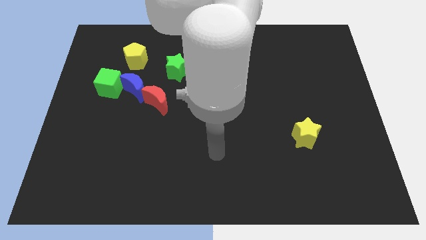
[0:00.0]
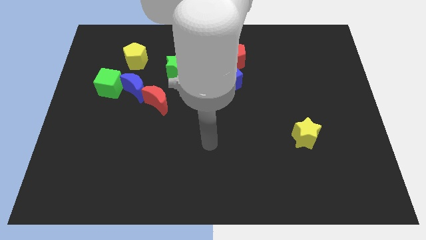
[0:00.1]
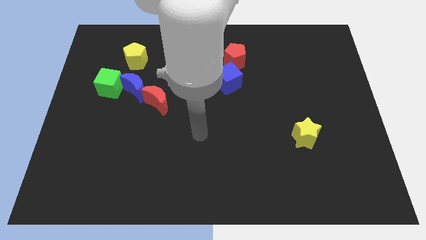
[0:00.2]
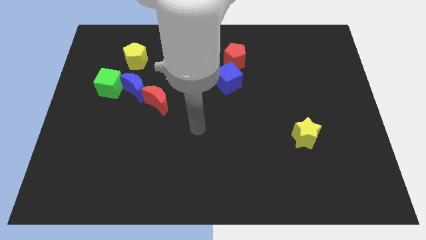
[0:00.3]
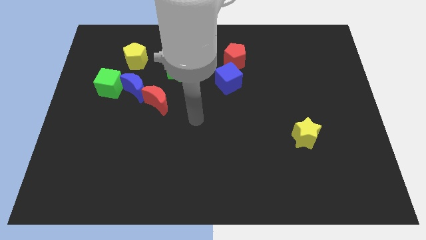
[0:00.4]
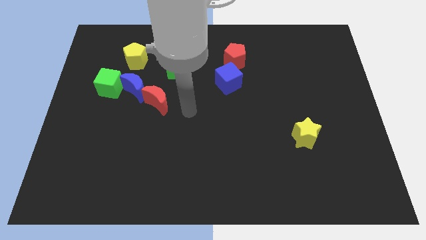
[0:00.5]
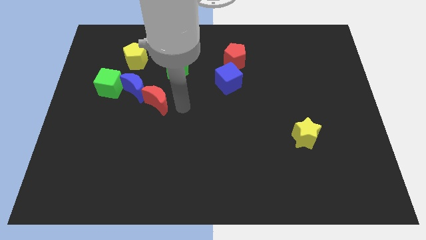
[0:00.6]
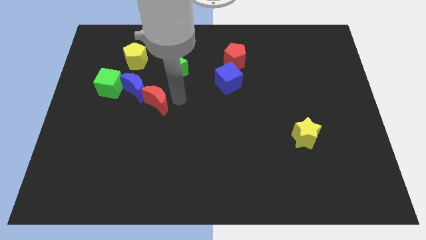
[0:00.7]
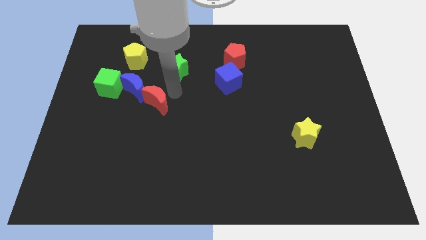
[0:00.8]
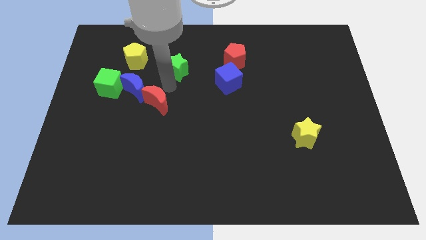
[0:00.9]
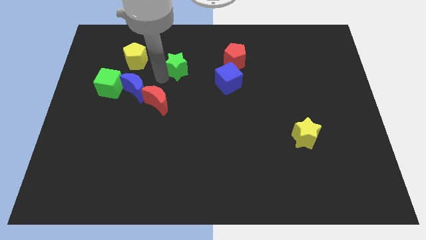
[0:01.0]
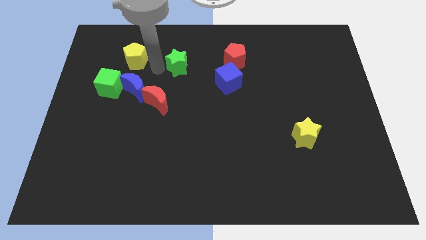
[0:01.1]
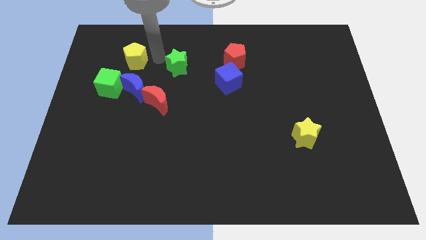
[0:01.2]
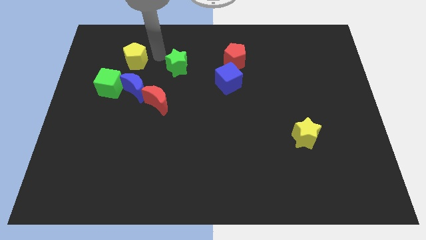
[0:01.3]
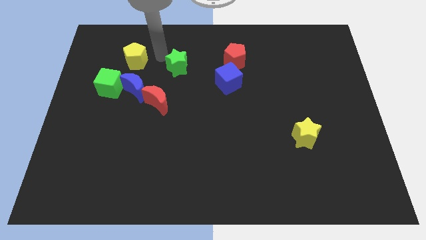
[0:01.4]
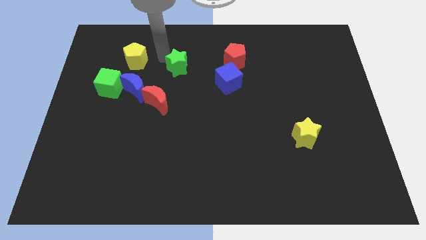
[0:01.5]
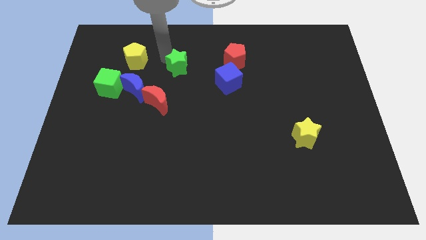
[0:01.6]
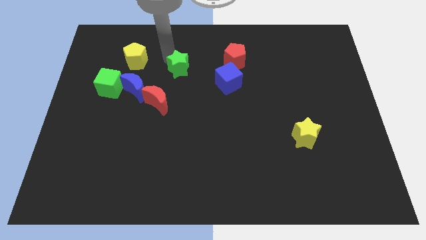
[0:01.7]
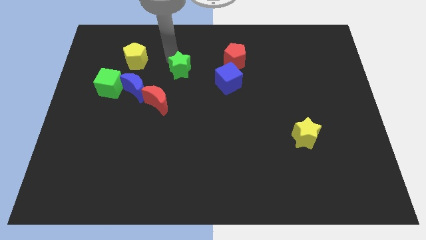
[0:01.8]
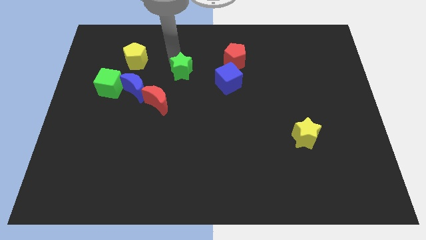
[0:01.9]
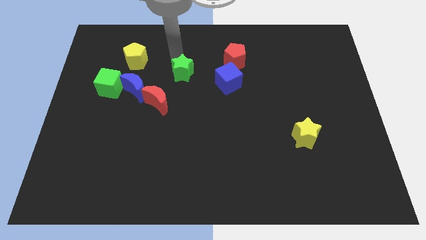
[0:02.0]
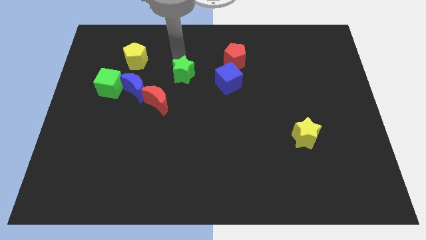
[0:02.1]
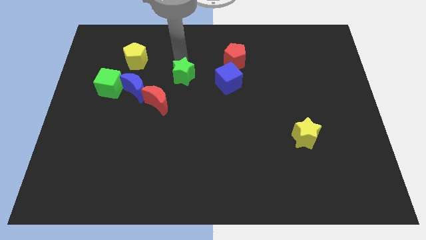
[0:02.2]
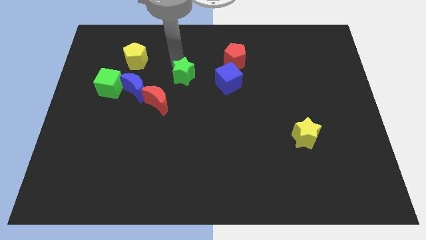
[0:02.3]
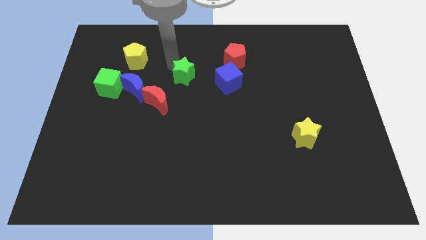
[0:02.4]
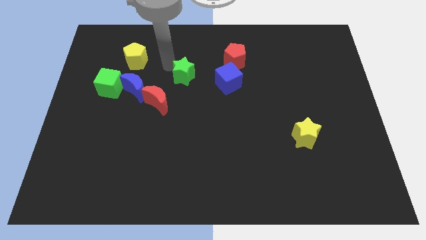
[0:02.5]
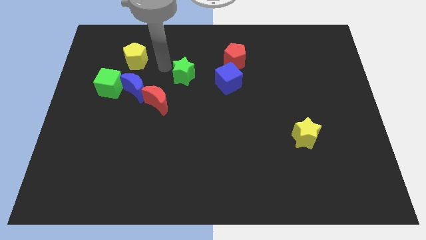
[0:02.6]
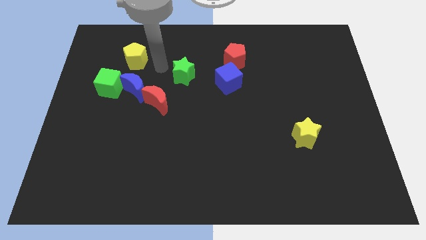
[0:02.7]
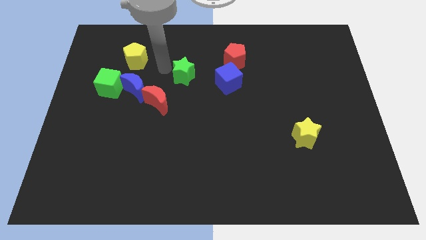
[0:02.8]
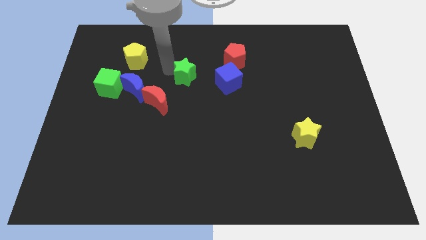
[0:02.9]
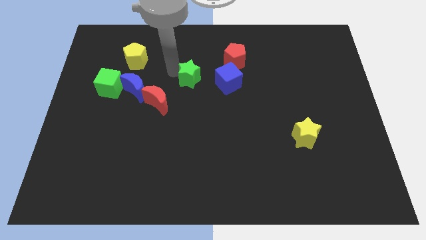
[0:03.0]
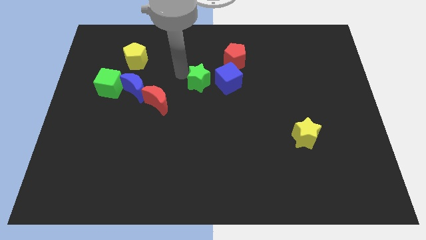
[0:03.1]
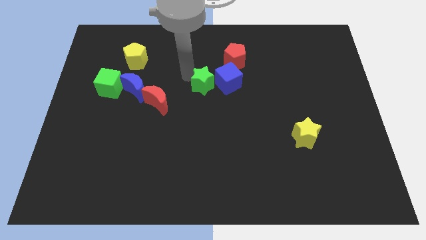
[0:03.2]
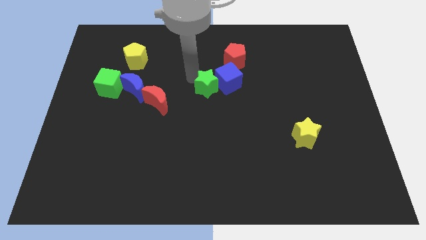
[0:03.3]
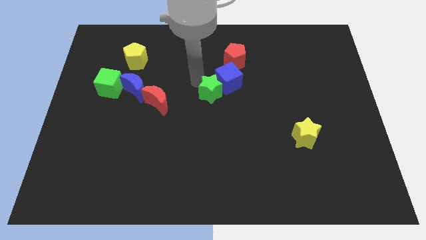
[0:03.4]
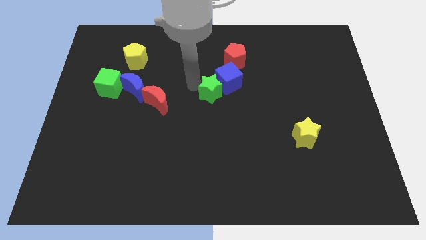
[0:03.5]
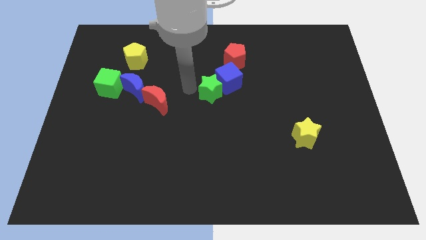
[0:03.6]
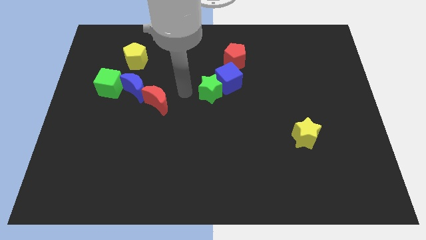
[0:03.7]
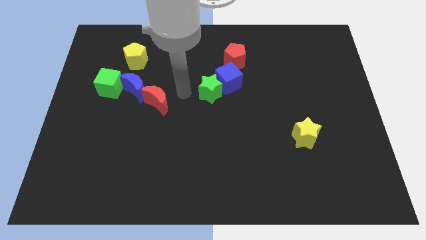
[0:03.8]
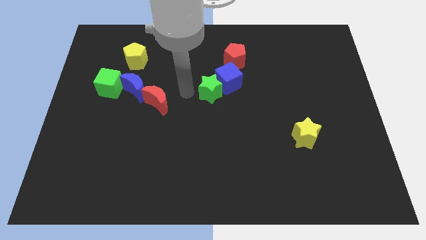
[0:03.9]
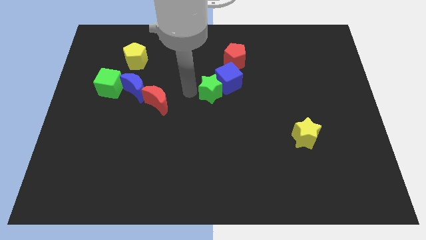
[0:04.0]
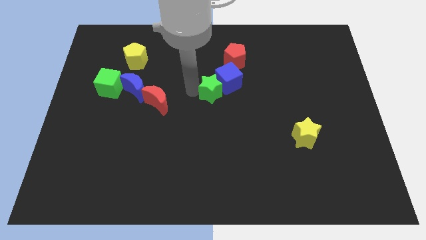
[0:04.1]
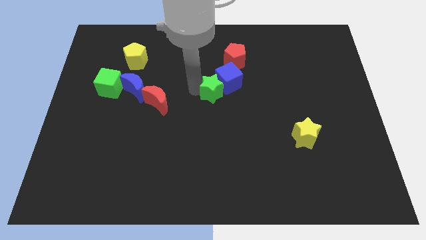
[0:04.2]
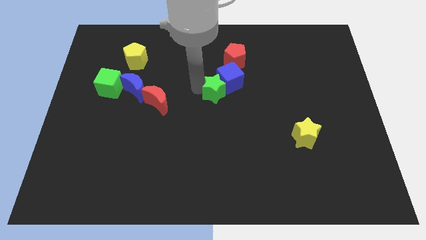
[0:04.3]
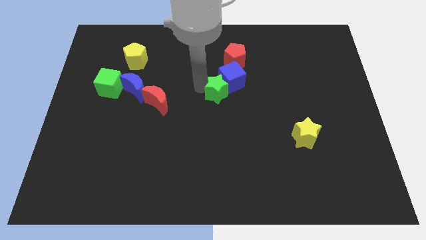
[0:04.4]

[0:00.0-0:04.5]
push the green star to the bottom of the red pentagon

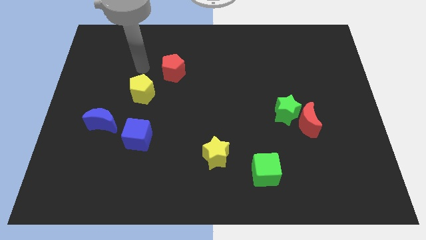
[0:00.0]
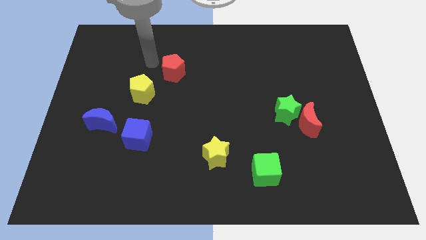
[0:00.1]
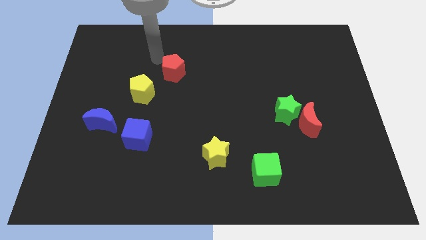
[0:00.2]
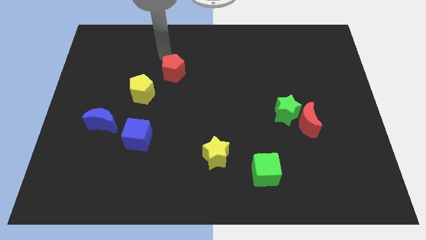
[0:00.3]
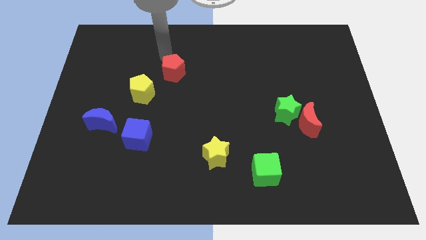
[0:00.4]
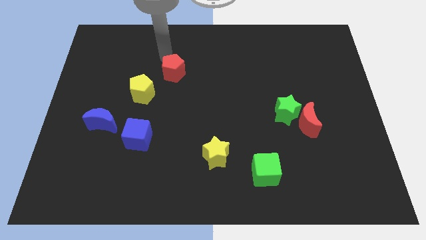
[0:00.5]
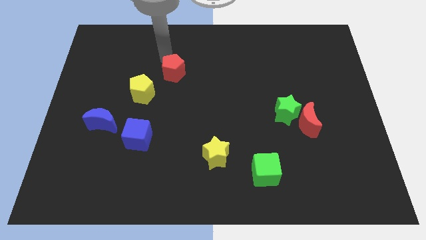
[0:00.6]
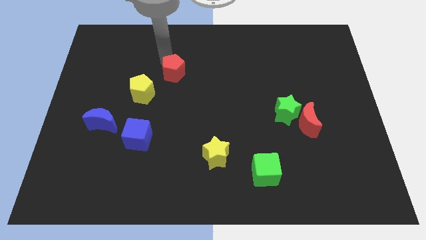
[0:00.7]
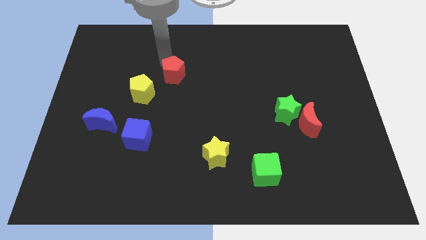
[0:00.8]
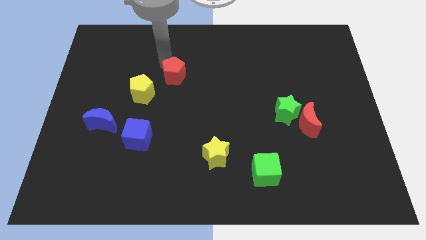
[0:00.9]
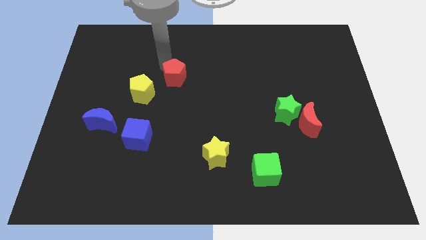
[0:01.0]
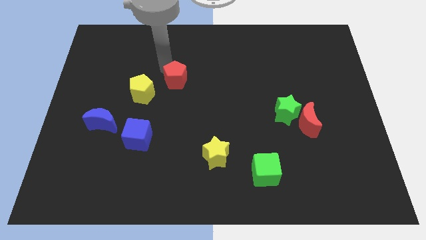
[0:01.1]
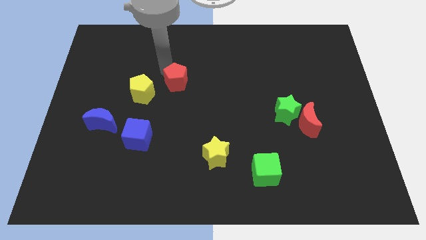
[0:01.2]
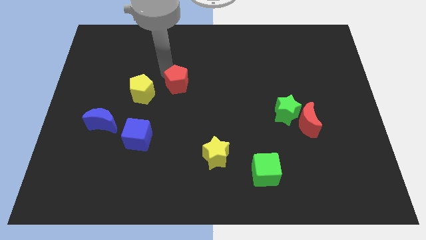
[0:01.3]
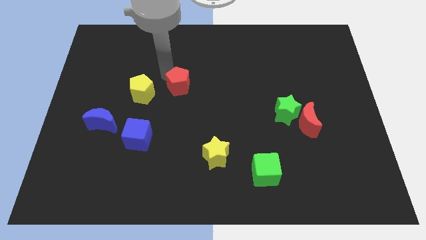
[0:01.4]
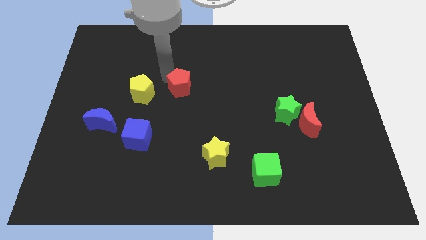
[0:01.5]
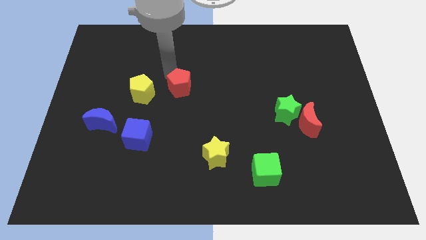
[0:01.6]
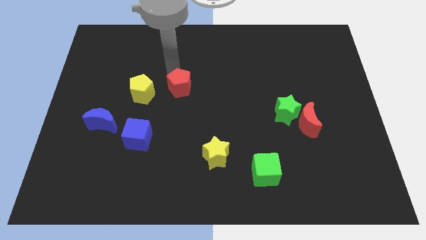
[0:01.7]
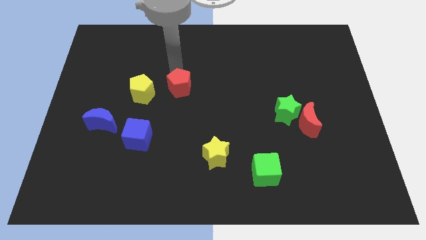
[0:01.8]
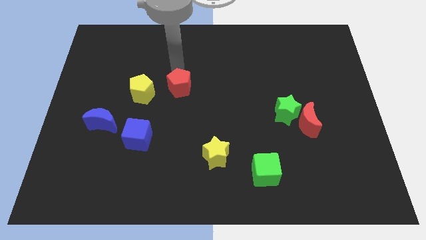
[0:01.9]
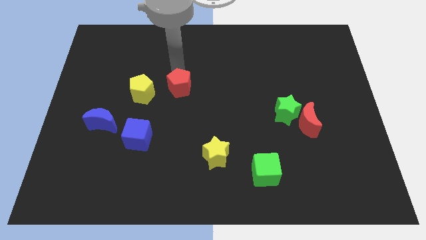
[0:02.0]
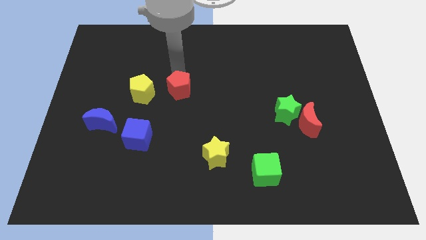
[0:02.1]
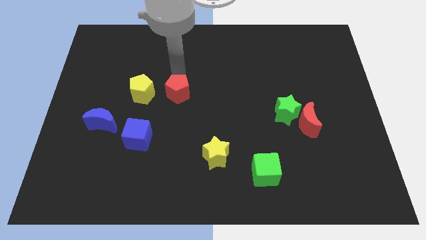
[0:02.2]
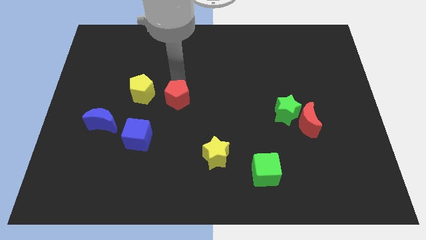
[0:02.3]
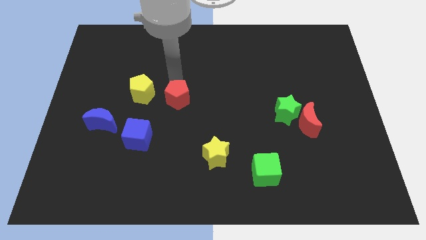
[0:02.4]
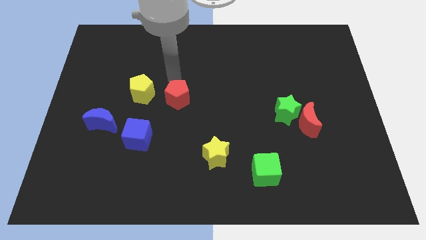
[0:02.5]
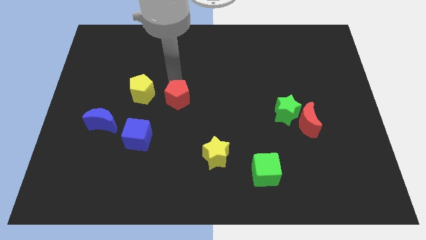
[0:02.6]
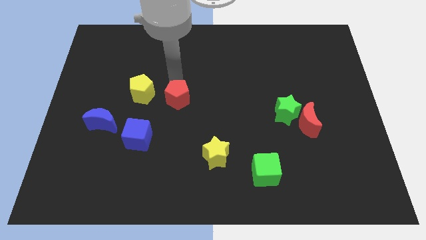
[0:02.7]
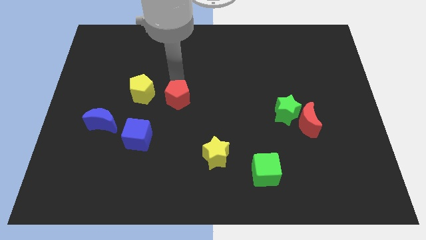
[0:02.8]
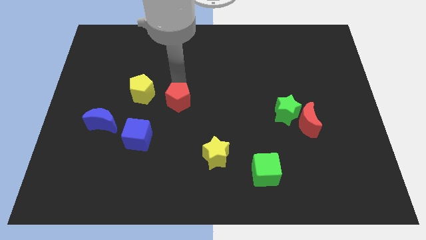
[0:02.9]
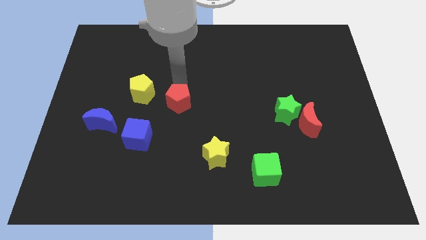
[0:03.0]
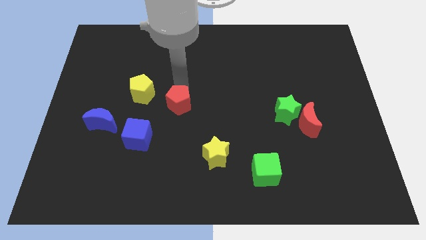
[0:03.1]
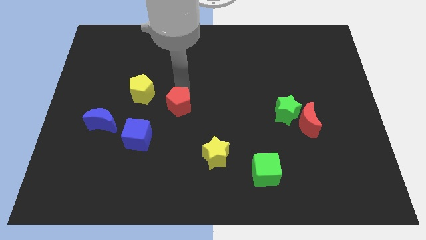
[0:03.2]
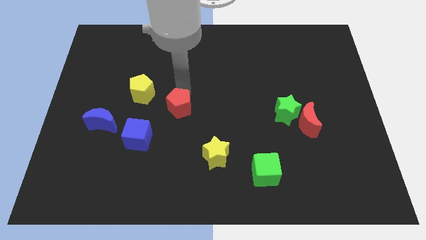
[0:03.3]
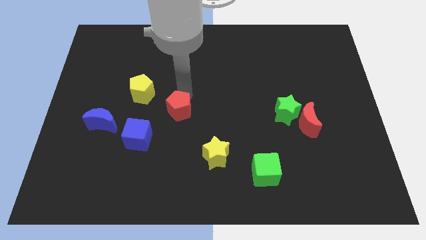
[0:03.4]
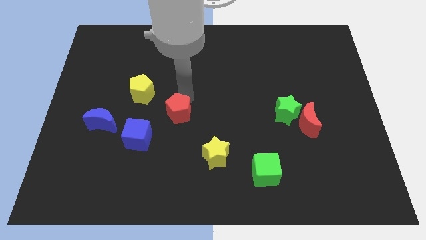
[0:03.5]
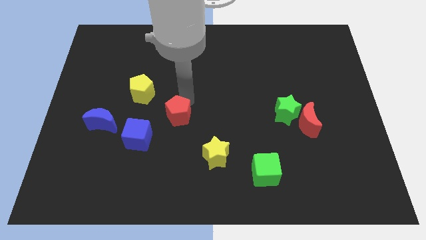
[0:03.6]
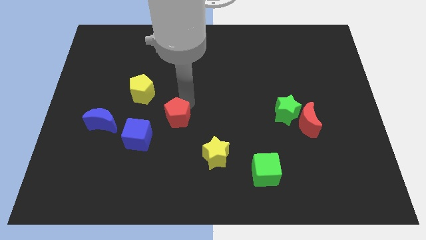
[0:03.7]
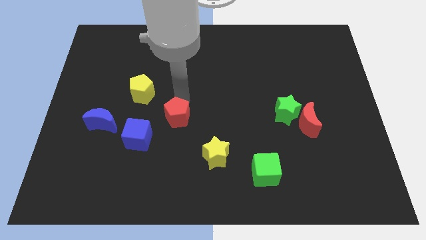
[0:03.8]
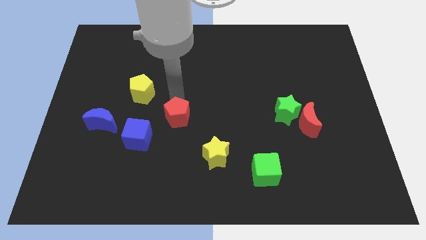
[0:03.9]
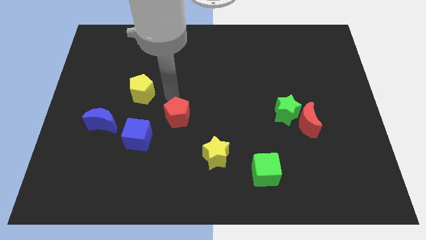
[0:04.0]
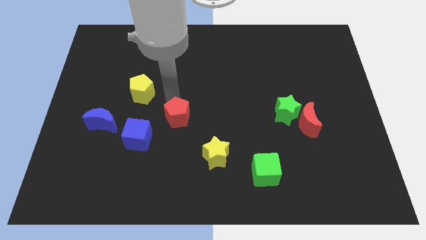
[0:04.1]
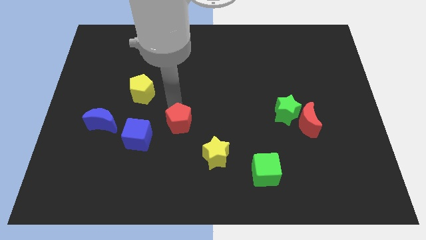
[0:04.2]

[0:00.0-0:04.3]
push the red pentagon just right of the blue cube
